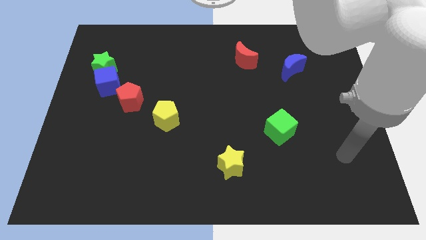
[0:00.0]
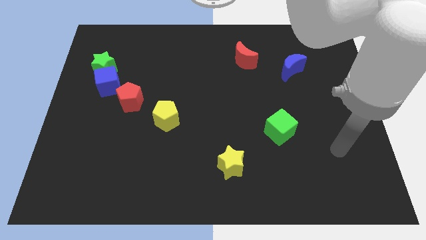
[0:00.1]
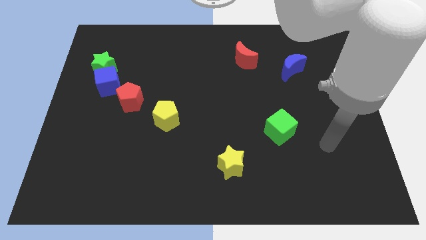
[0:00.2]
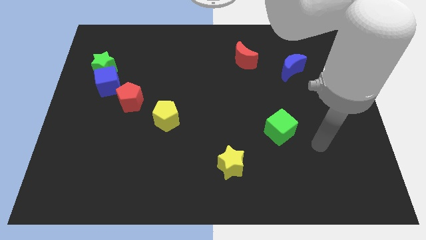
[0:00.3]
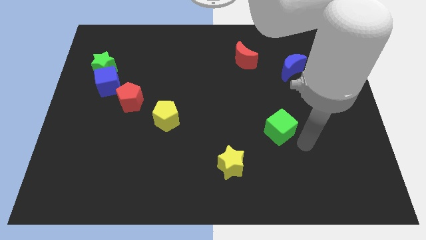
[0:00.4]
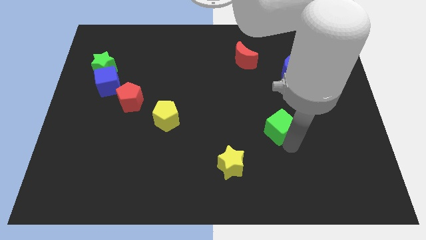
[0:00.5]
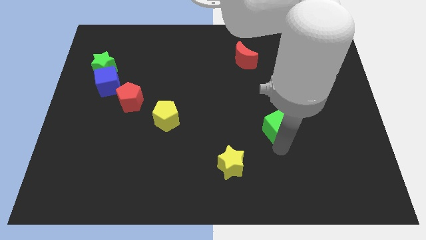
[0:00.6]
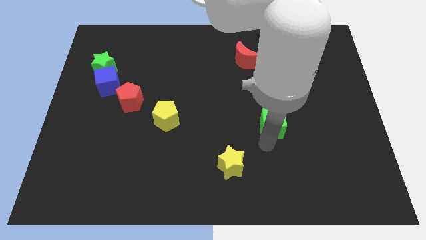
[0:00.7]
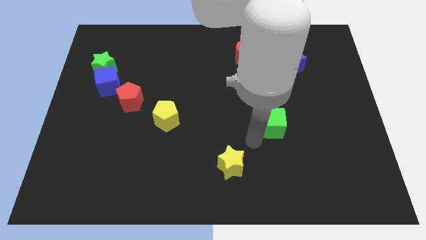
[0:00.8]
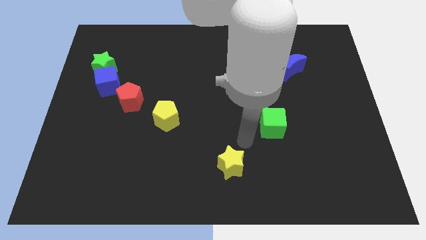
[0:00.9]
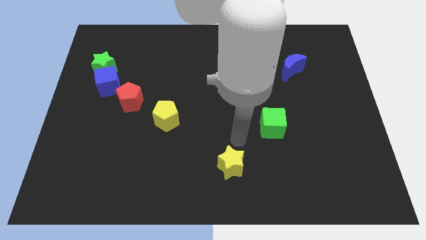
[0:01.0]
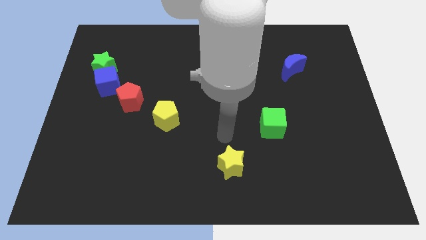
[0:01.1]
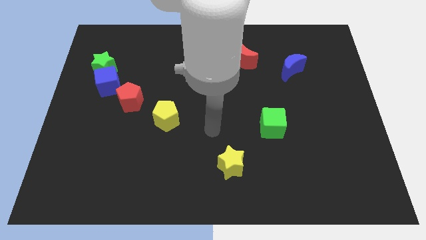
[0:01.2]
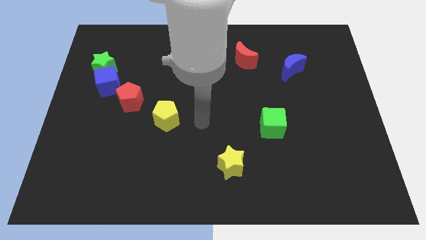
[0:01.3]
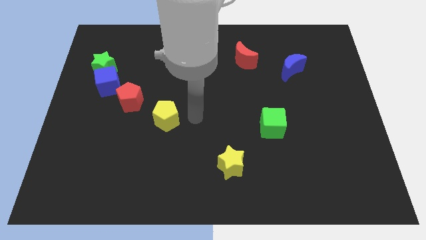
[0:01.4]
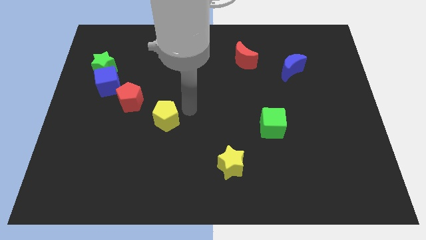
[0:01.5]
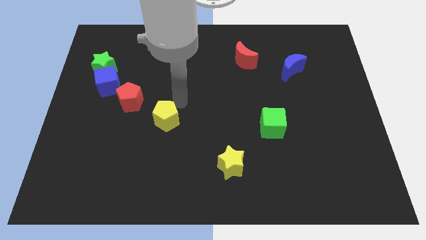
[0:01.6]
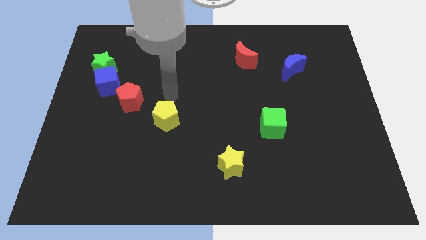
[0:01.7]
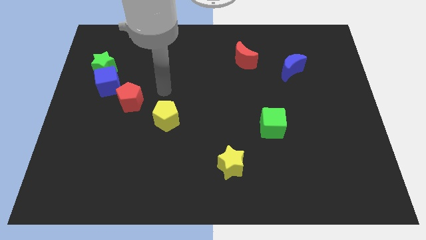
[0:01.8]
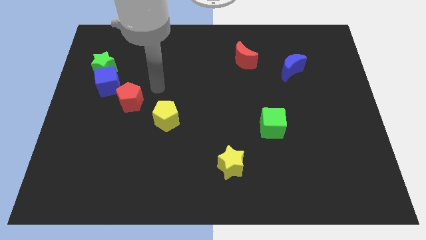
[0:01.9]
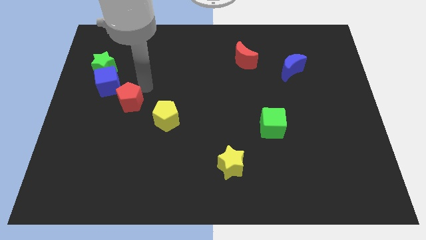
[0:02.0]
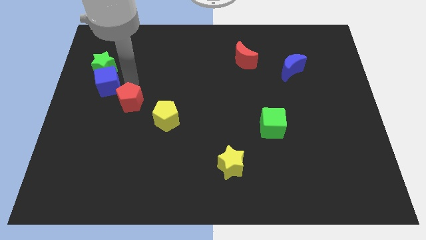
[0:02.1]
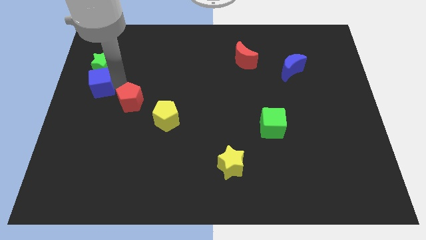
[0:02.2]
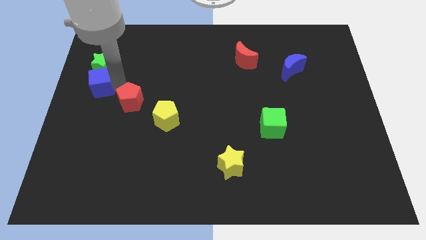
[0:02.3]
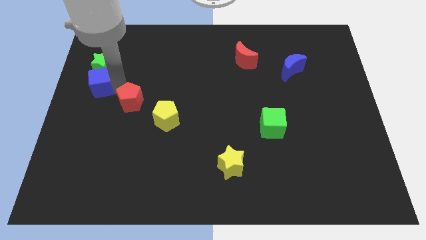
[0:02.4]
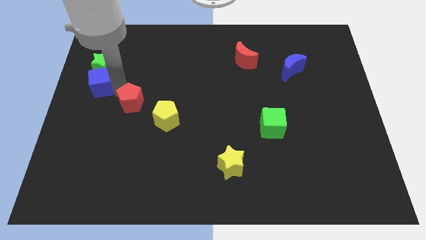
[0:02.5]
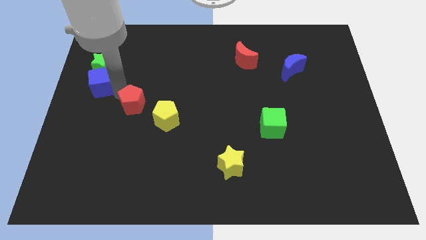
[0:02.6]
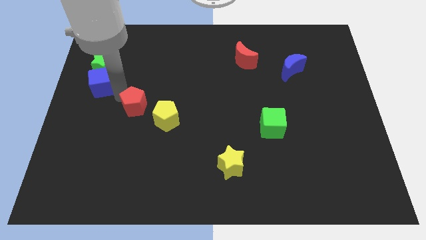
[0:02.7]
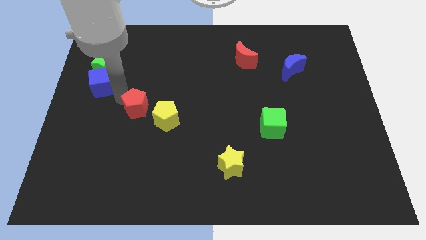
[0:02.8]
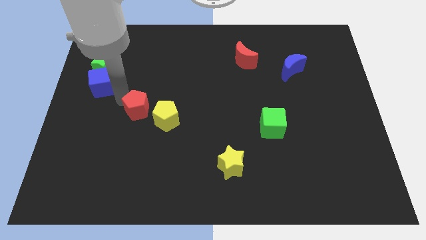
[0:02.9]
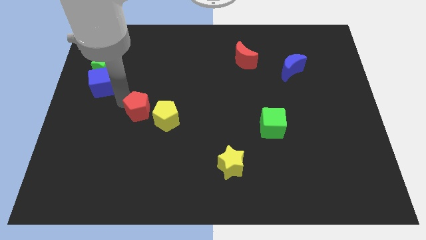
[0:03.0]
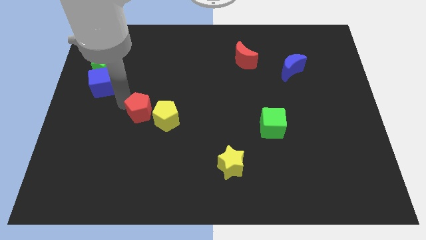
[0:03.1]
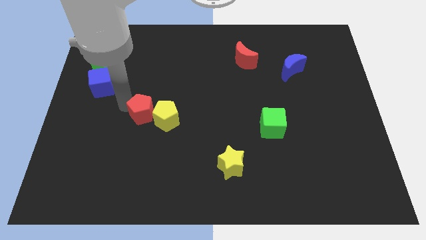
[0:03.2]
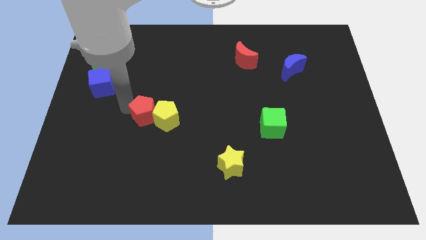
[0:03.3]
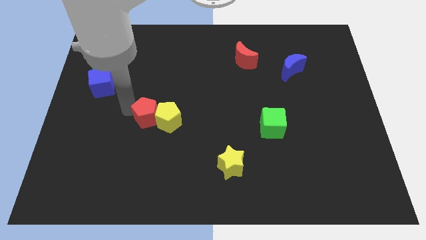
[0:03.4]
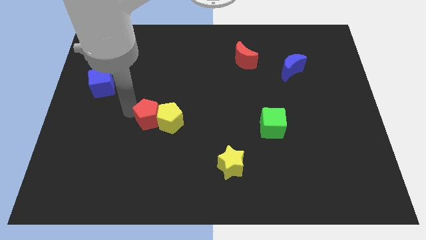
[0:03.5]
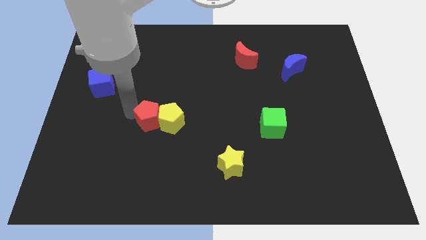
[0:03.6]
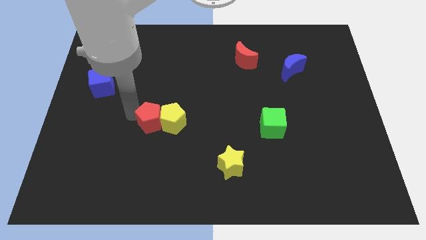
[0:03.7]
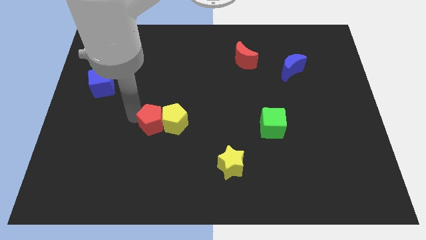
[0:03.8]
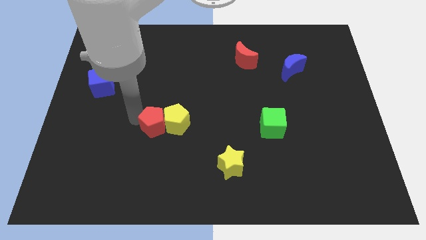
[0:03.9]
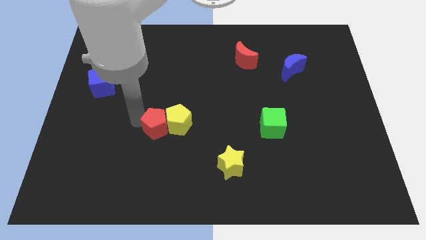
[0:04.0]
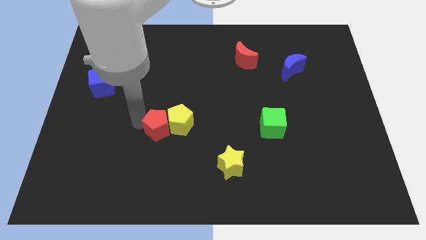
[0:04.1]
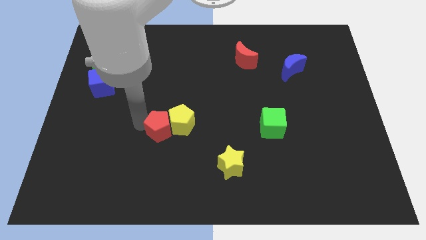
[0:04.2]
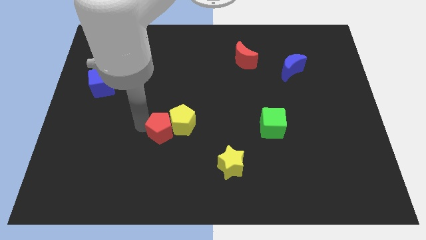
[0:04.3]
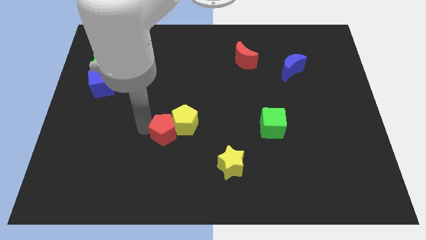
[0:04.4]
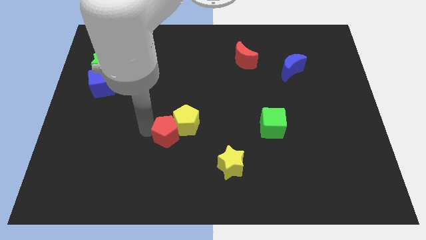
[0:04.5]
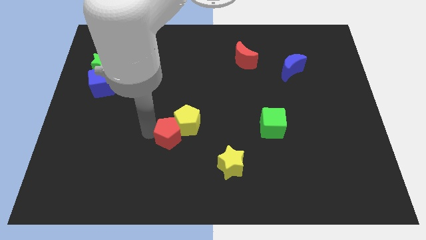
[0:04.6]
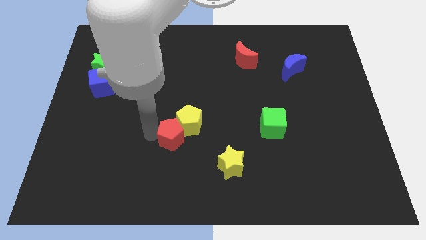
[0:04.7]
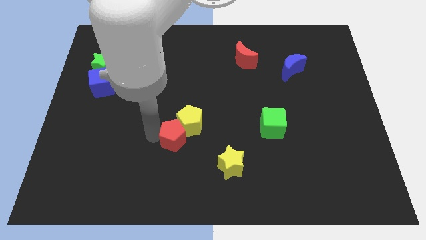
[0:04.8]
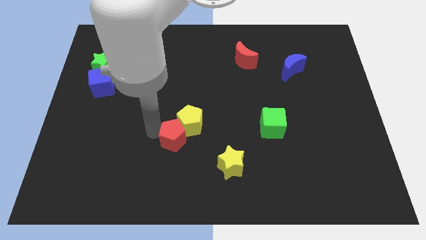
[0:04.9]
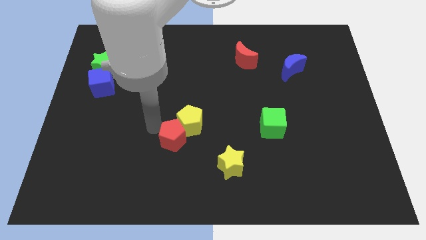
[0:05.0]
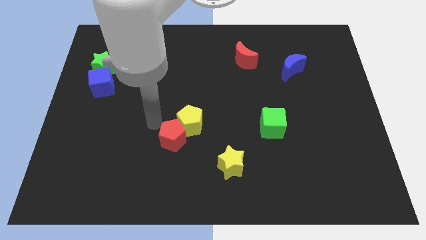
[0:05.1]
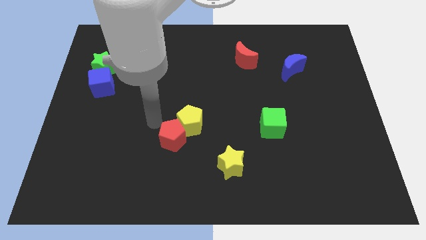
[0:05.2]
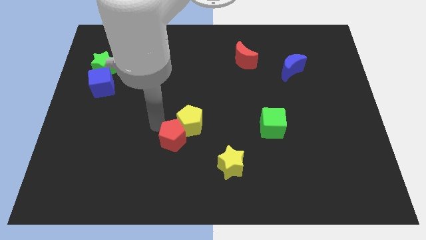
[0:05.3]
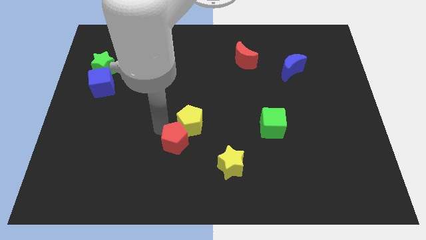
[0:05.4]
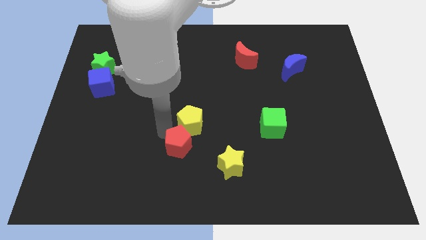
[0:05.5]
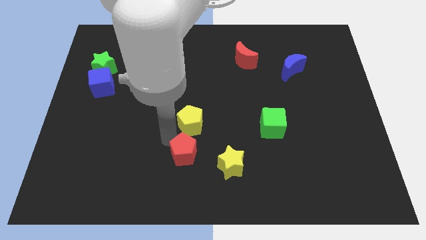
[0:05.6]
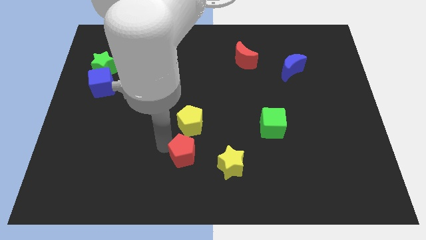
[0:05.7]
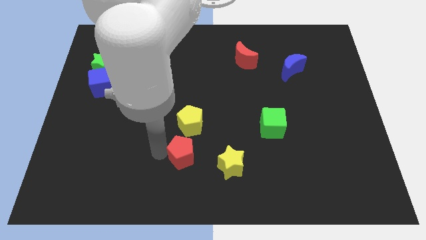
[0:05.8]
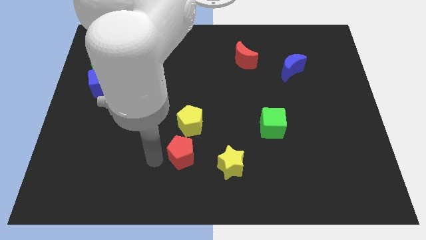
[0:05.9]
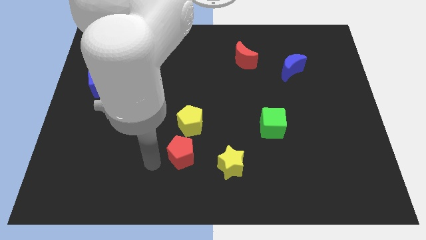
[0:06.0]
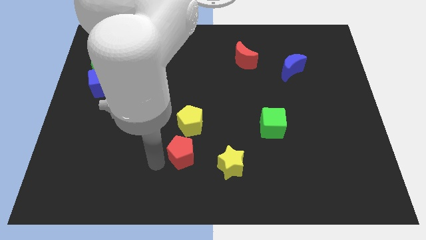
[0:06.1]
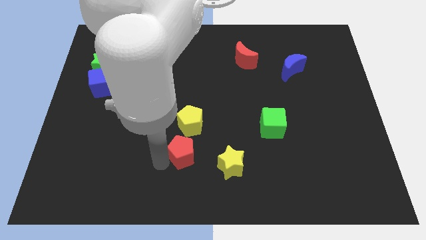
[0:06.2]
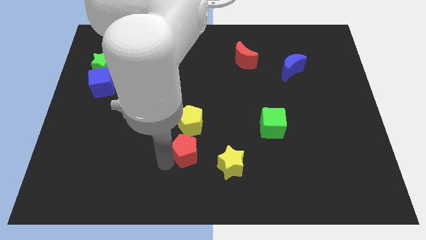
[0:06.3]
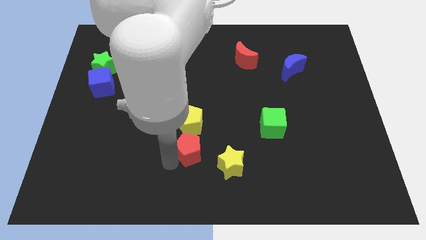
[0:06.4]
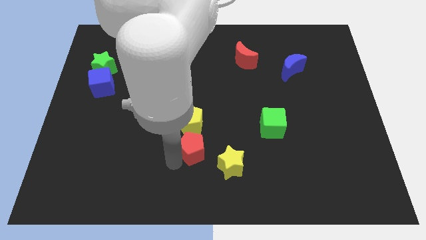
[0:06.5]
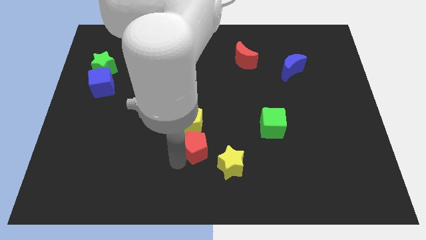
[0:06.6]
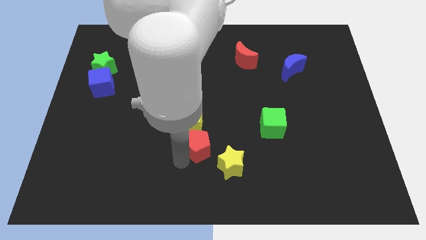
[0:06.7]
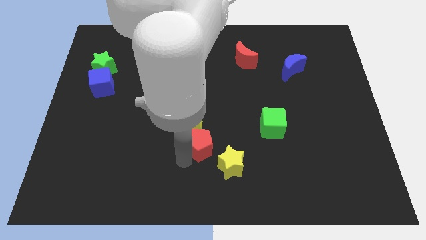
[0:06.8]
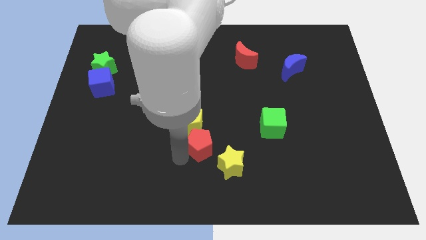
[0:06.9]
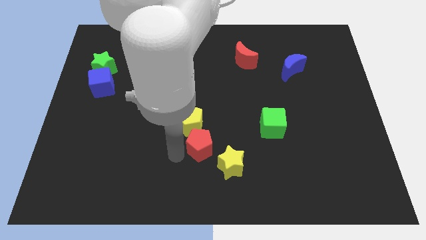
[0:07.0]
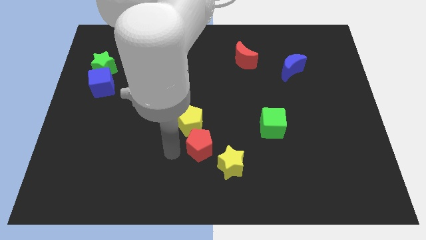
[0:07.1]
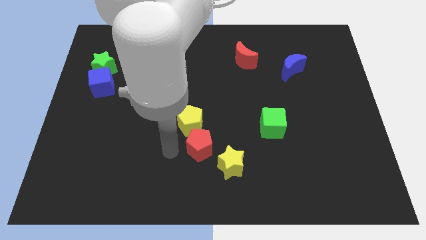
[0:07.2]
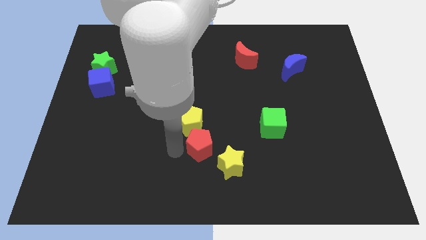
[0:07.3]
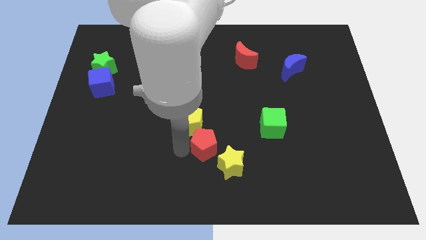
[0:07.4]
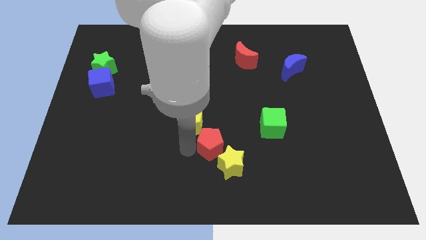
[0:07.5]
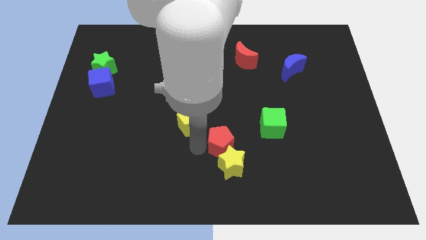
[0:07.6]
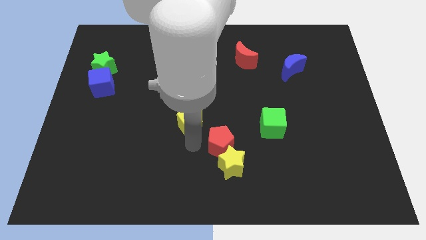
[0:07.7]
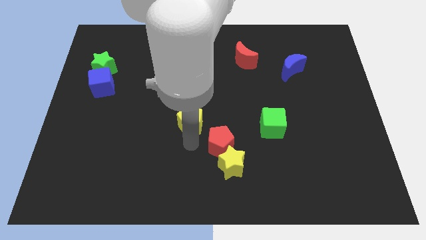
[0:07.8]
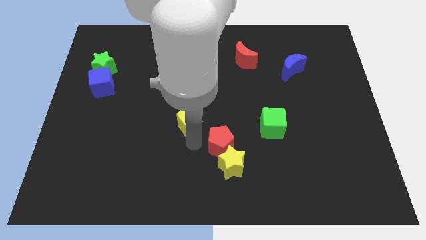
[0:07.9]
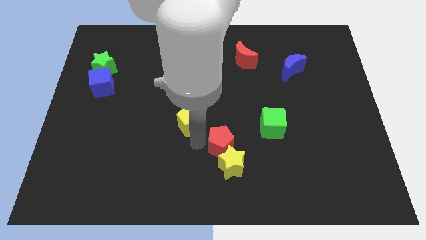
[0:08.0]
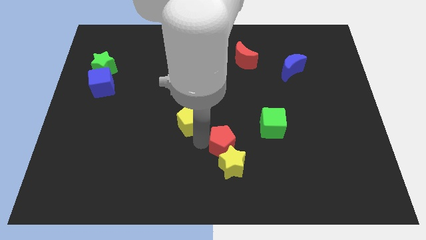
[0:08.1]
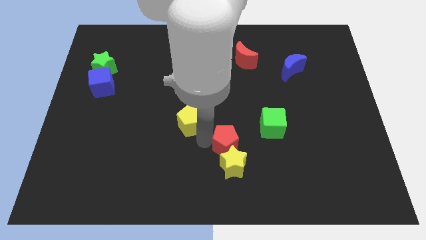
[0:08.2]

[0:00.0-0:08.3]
push the red pentagon to the bottom left side of the green cube

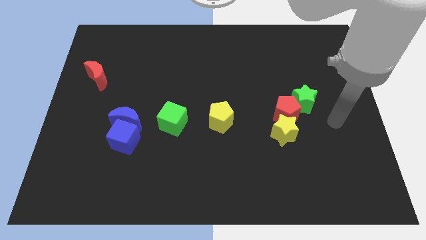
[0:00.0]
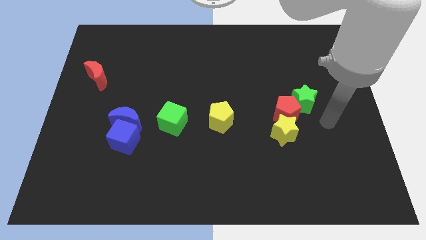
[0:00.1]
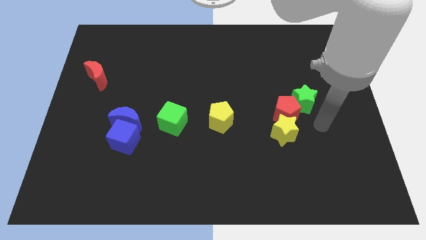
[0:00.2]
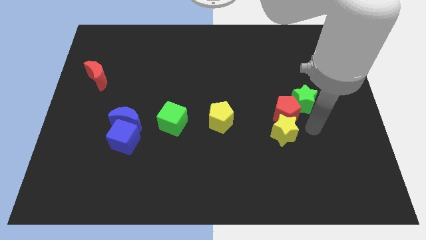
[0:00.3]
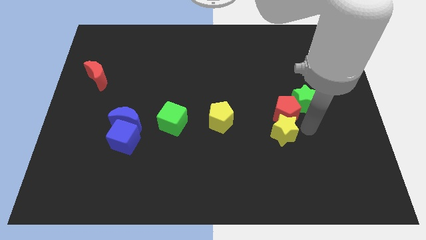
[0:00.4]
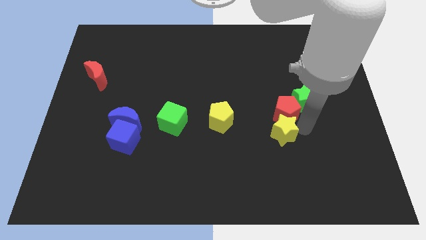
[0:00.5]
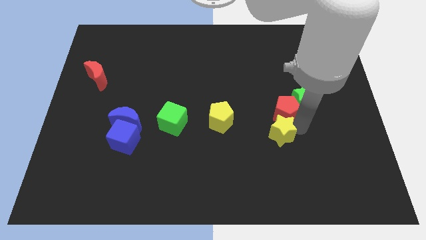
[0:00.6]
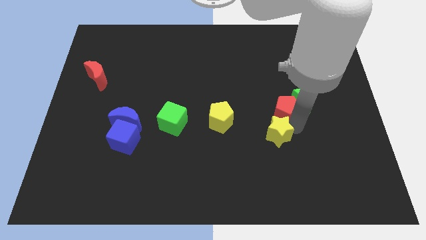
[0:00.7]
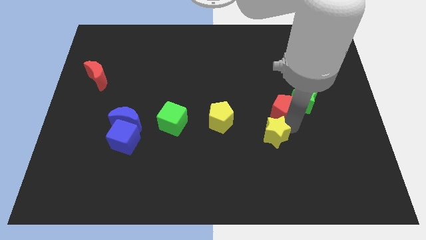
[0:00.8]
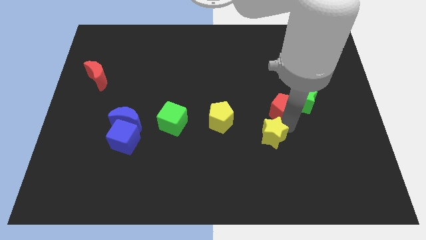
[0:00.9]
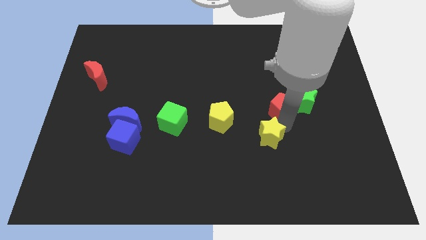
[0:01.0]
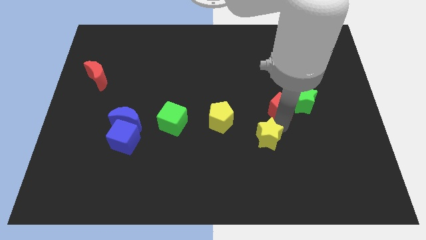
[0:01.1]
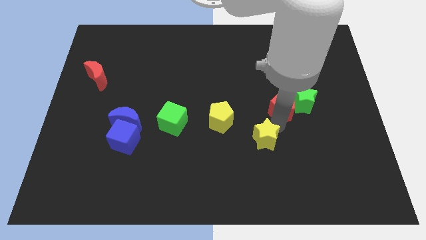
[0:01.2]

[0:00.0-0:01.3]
push the yellow star to the bottom right side of the yellow pentagon
